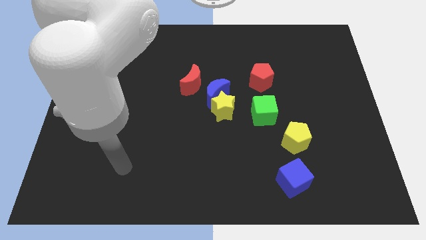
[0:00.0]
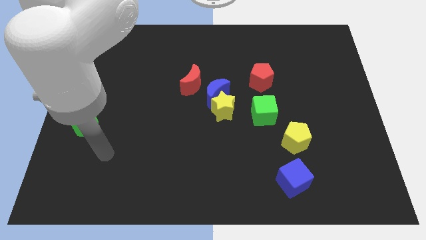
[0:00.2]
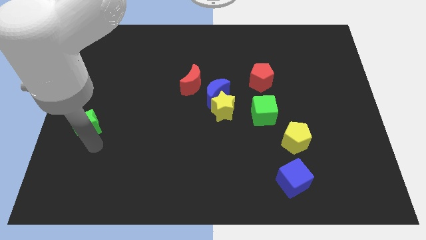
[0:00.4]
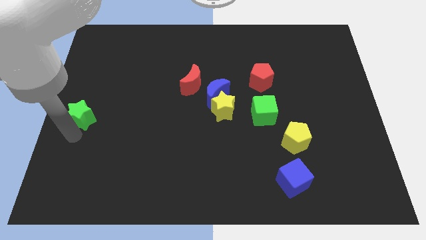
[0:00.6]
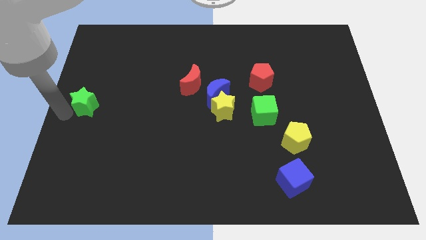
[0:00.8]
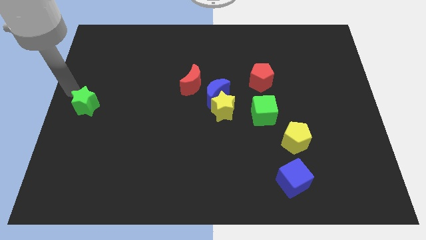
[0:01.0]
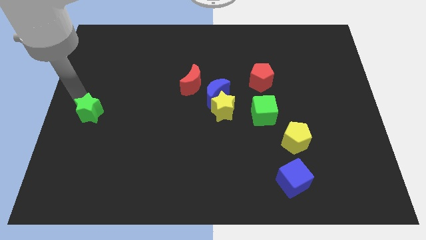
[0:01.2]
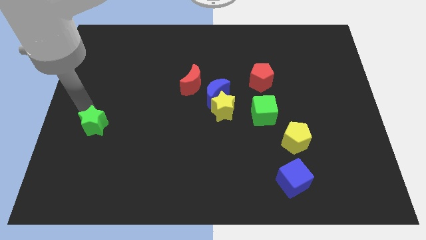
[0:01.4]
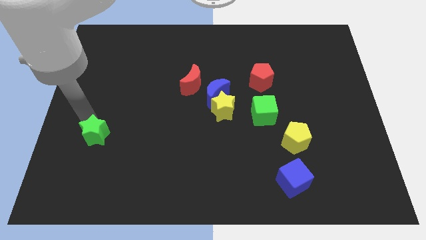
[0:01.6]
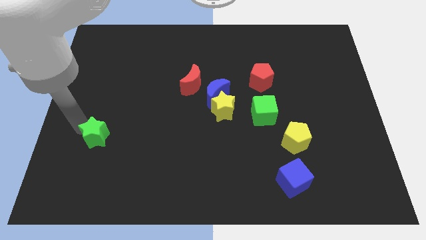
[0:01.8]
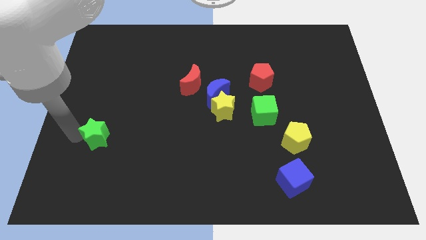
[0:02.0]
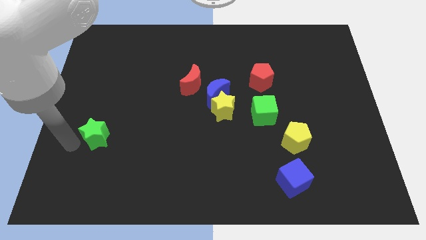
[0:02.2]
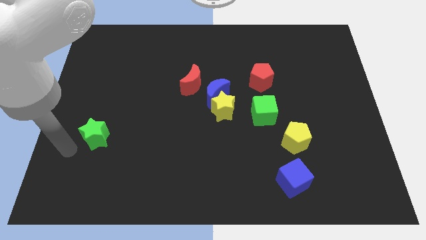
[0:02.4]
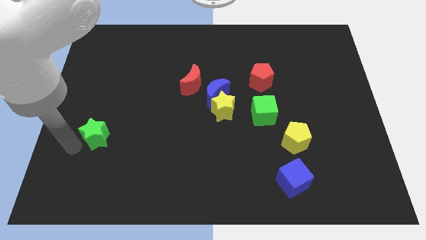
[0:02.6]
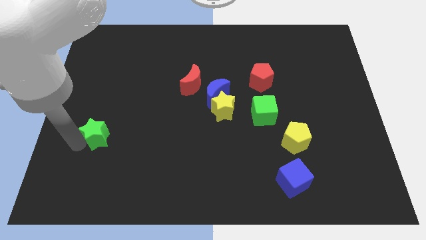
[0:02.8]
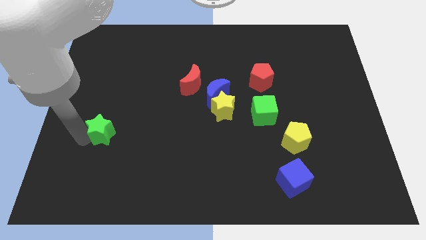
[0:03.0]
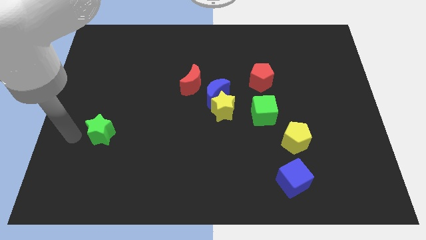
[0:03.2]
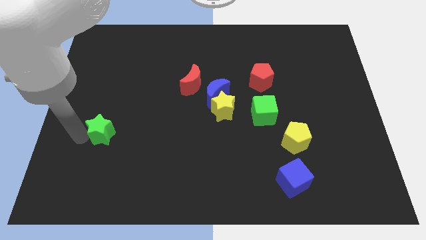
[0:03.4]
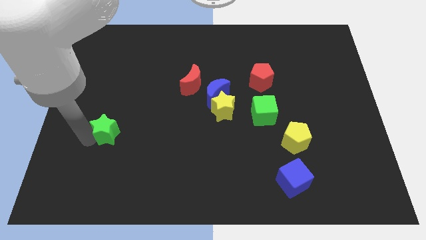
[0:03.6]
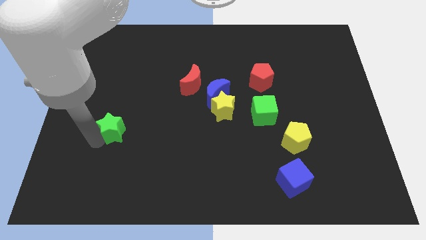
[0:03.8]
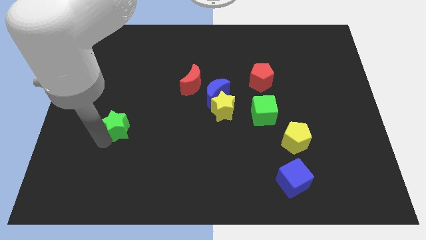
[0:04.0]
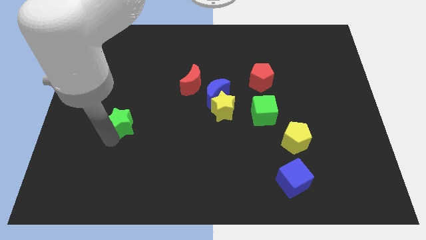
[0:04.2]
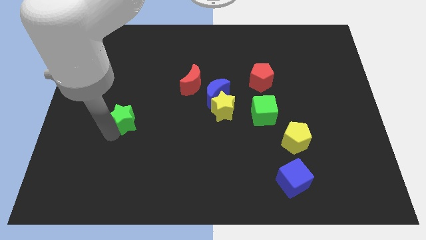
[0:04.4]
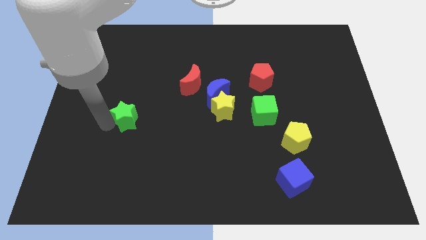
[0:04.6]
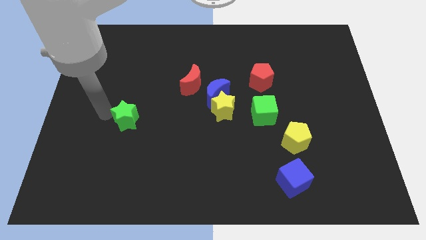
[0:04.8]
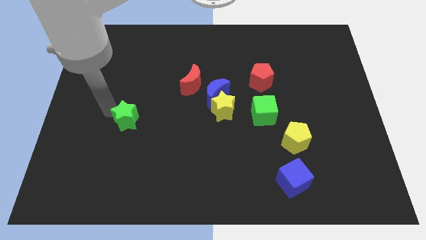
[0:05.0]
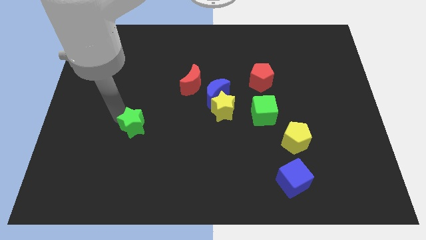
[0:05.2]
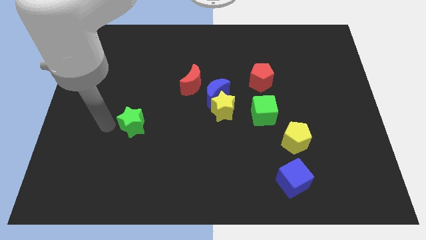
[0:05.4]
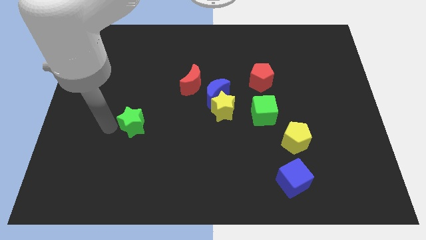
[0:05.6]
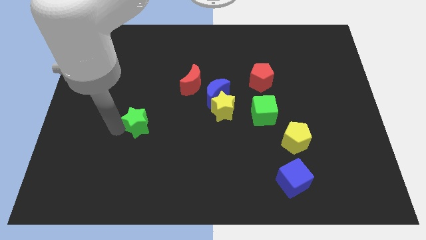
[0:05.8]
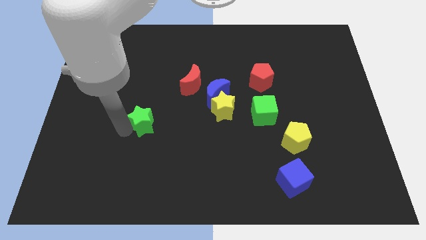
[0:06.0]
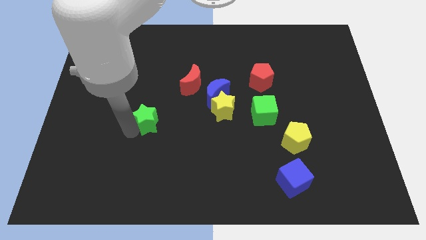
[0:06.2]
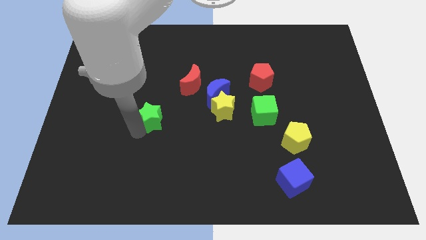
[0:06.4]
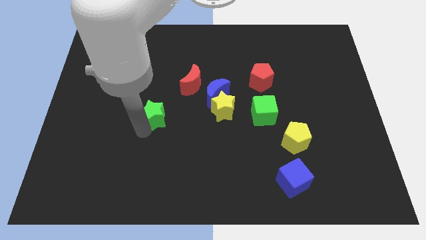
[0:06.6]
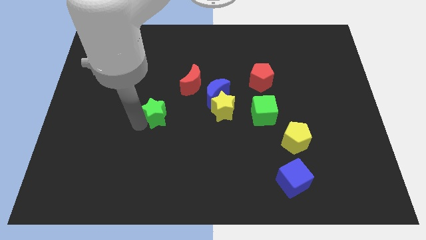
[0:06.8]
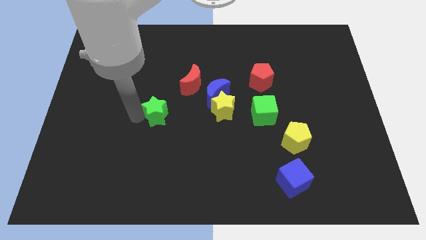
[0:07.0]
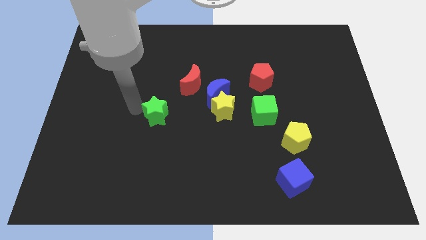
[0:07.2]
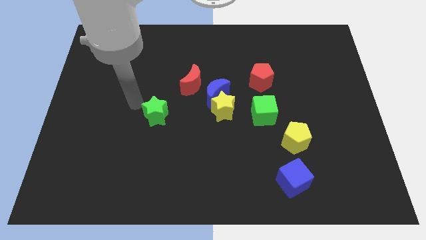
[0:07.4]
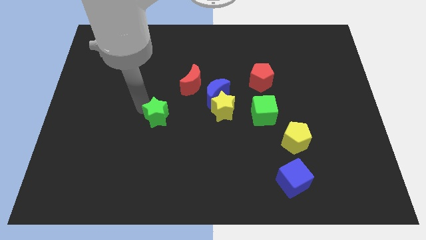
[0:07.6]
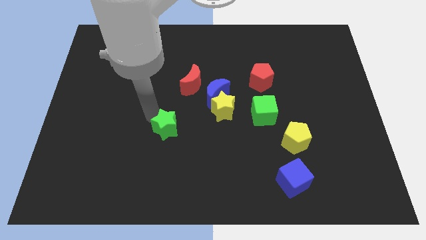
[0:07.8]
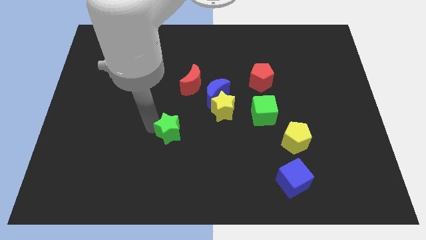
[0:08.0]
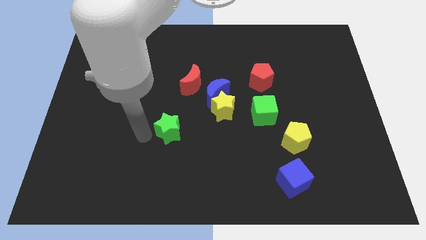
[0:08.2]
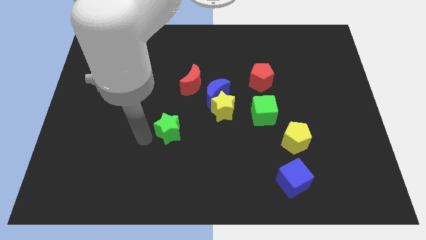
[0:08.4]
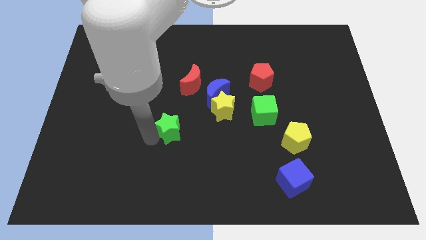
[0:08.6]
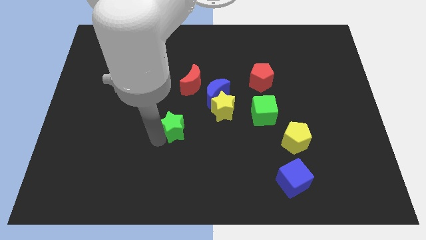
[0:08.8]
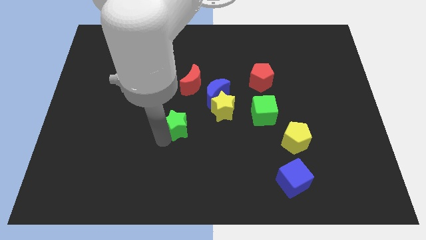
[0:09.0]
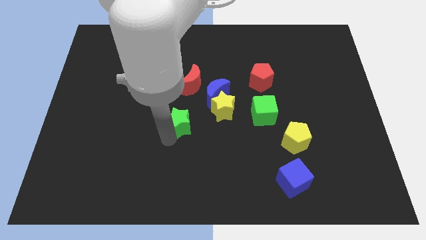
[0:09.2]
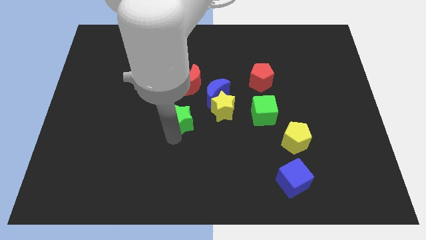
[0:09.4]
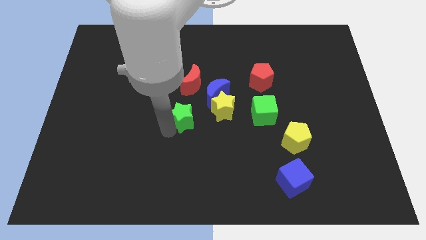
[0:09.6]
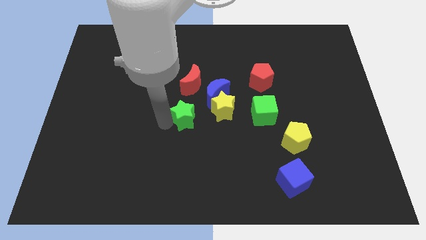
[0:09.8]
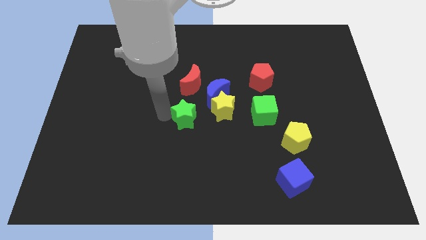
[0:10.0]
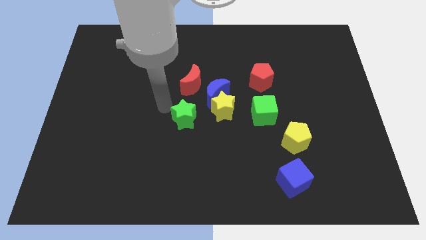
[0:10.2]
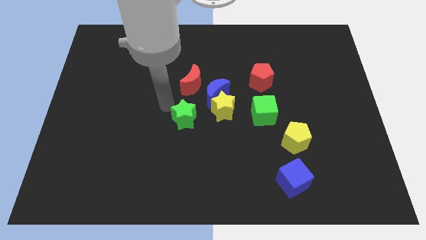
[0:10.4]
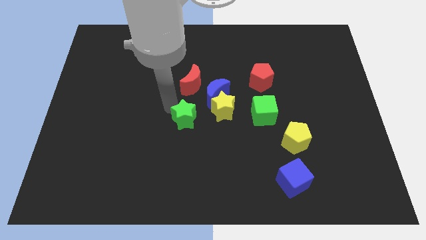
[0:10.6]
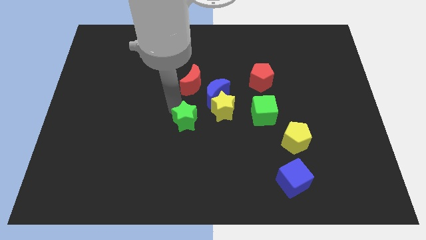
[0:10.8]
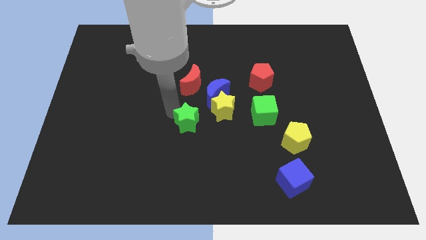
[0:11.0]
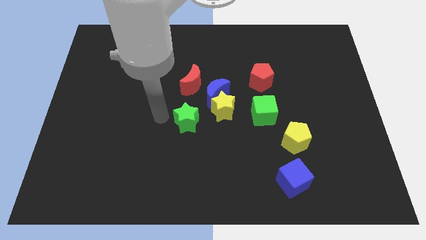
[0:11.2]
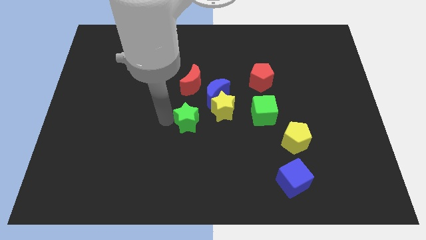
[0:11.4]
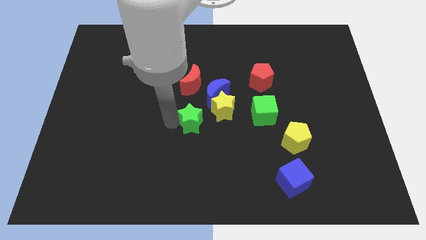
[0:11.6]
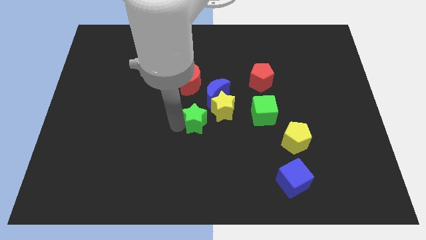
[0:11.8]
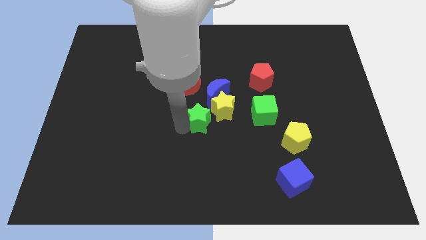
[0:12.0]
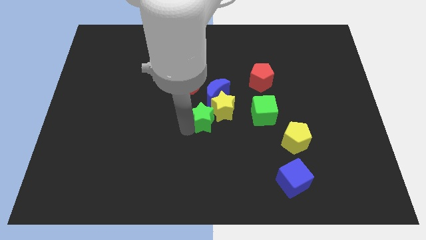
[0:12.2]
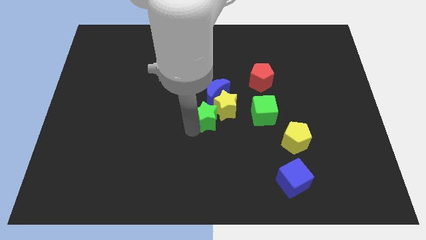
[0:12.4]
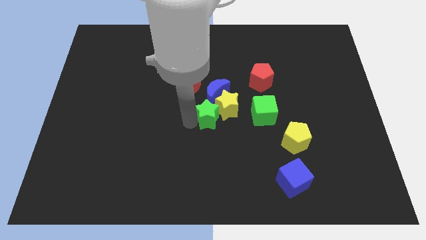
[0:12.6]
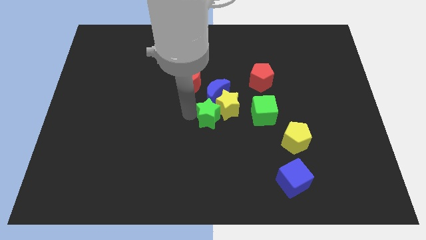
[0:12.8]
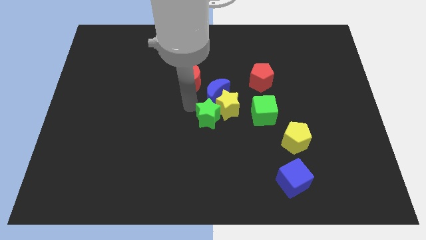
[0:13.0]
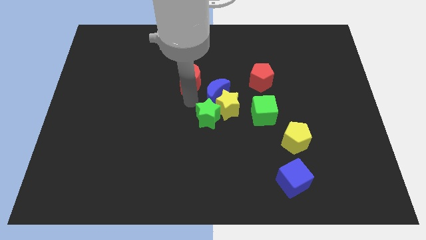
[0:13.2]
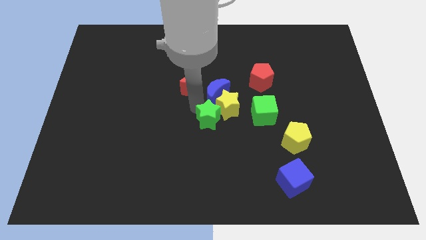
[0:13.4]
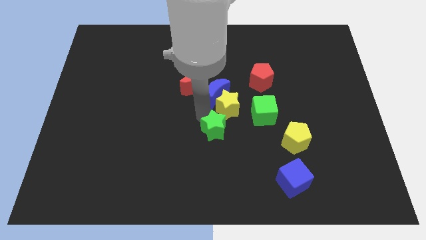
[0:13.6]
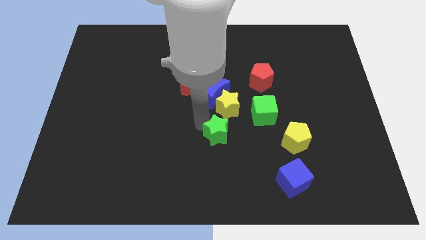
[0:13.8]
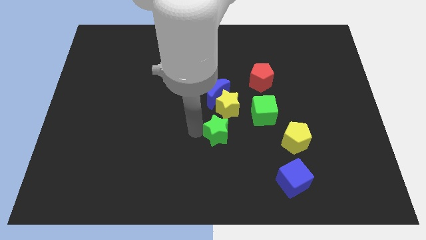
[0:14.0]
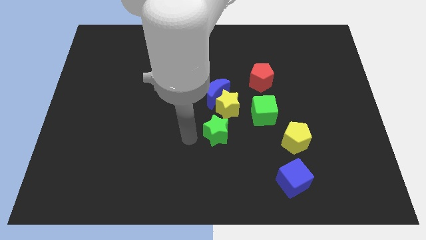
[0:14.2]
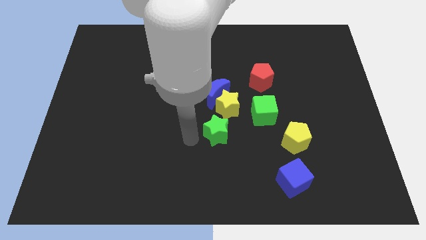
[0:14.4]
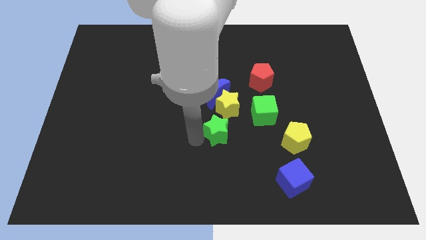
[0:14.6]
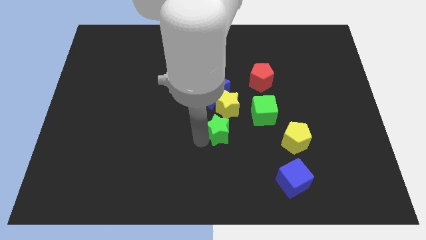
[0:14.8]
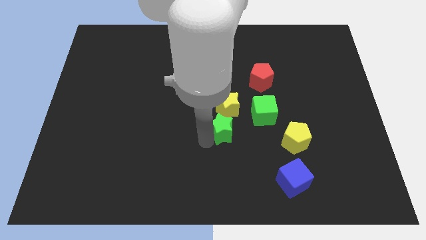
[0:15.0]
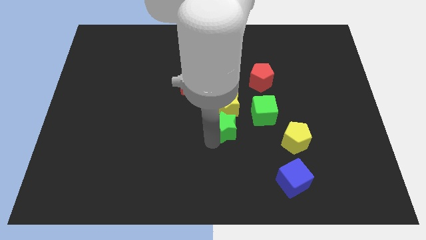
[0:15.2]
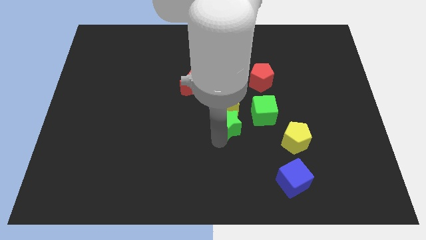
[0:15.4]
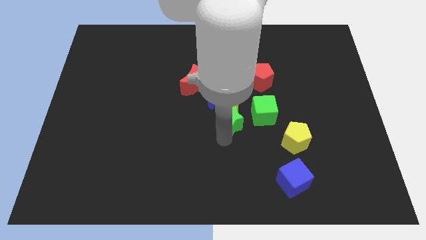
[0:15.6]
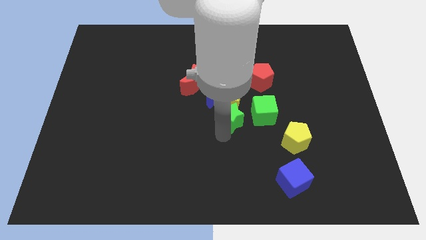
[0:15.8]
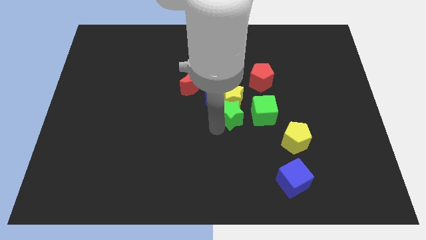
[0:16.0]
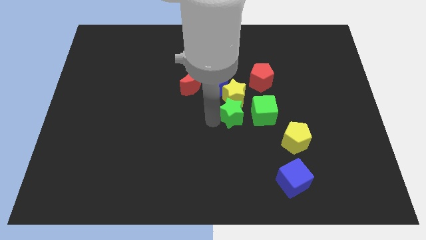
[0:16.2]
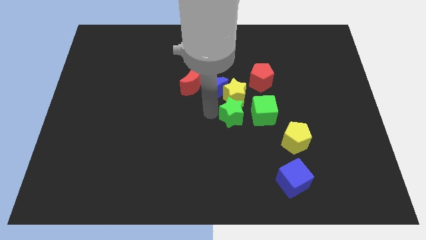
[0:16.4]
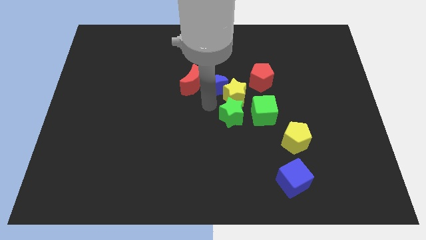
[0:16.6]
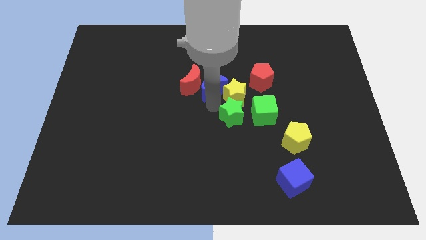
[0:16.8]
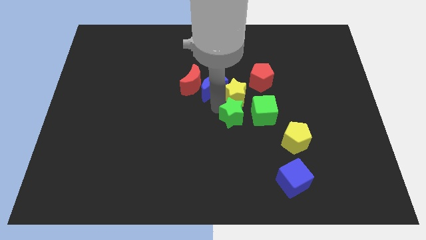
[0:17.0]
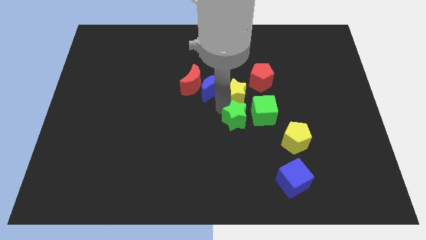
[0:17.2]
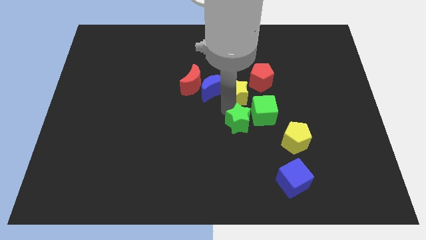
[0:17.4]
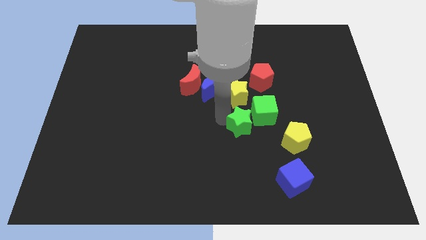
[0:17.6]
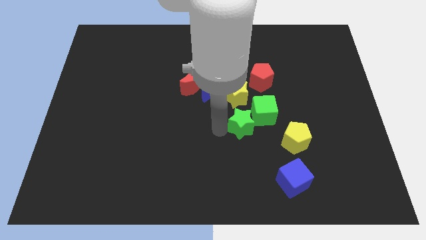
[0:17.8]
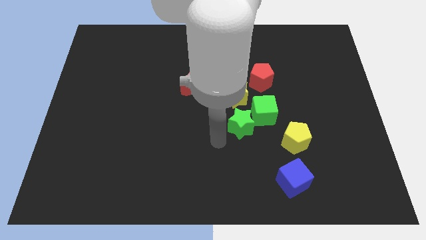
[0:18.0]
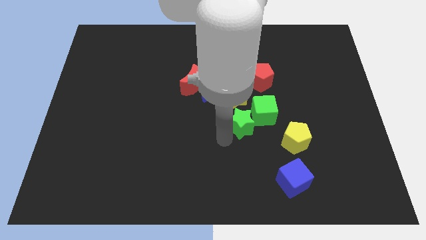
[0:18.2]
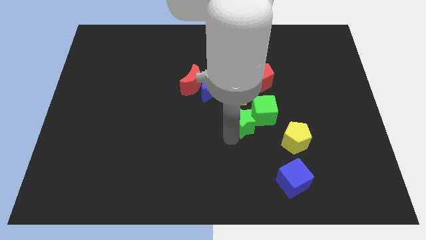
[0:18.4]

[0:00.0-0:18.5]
slide the green star next to the green cube
